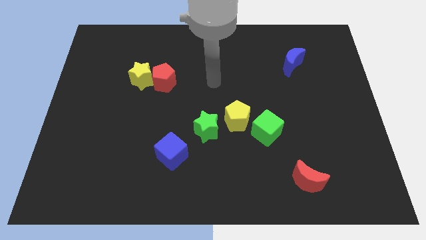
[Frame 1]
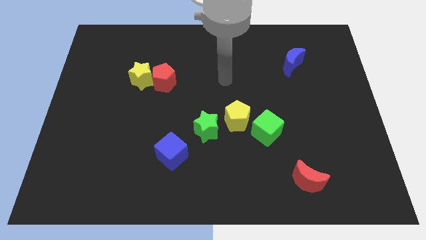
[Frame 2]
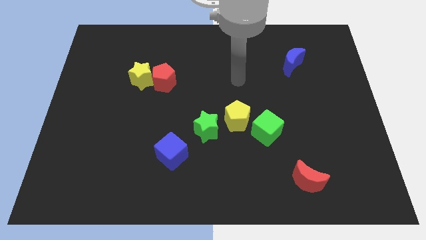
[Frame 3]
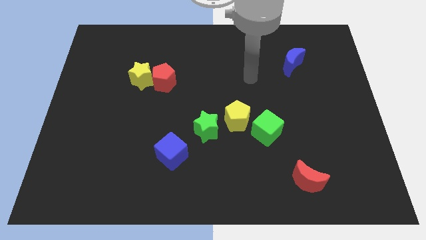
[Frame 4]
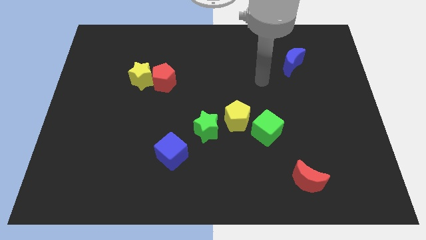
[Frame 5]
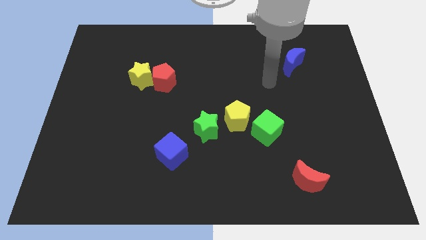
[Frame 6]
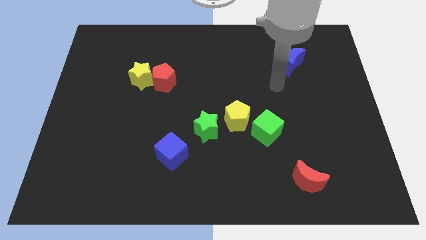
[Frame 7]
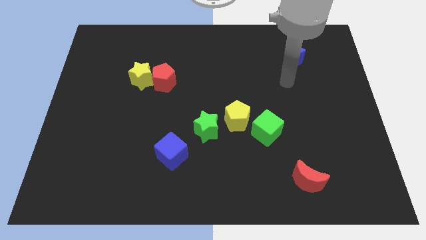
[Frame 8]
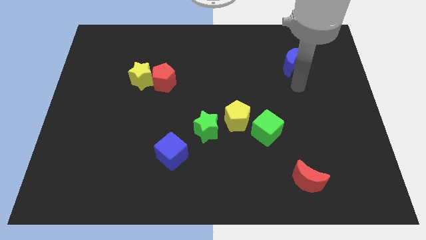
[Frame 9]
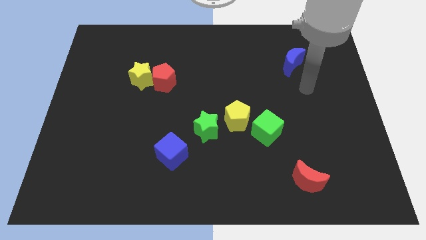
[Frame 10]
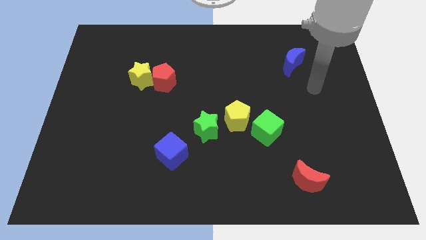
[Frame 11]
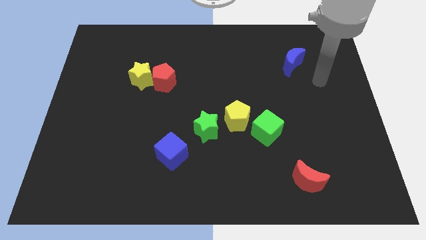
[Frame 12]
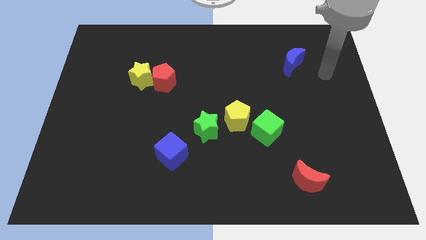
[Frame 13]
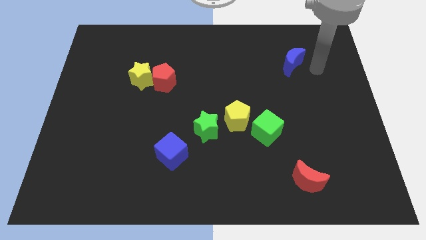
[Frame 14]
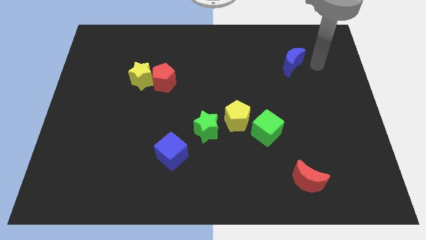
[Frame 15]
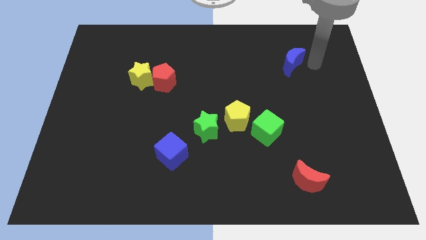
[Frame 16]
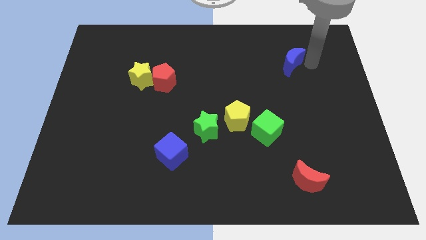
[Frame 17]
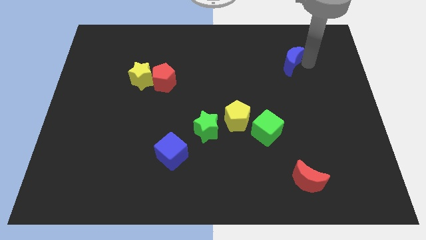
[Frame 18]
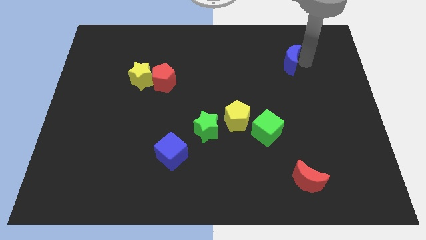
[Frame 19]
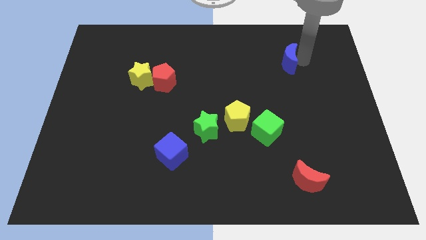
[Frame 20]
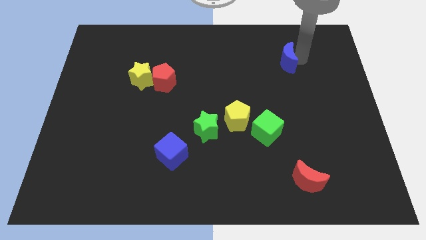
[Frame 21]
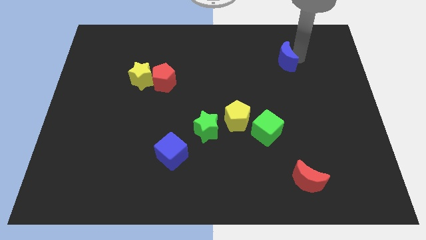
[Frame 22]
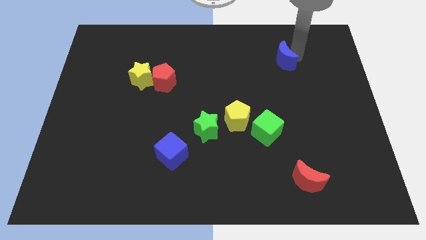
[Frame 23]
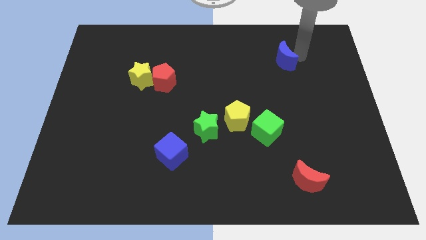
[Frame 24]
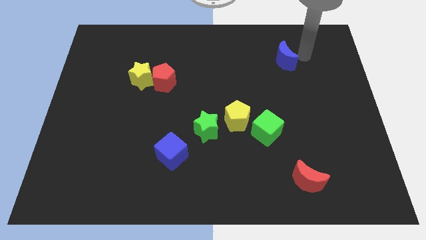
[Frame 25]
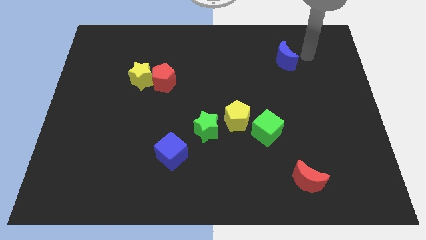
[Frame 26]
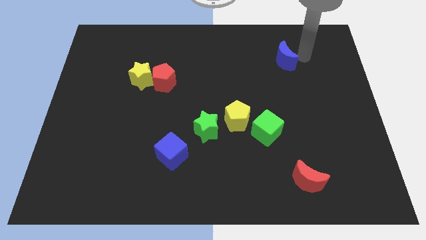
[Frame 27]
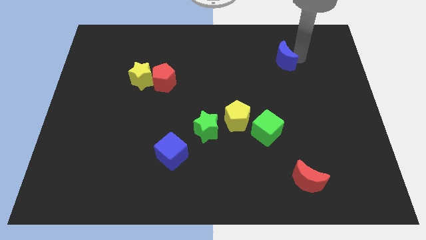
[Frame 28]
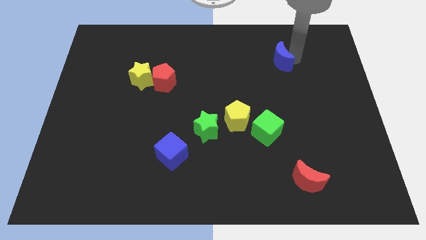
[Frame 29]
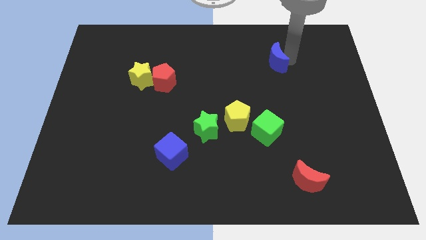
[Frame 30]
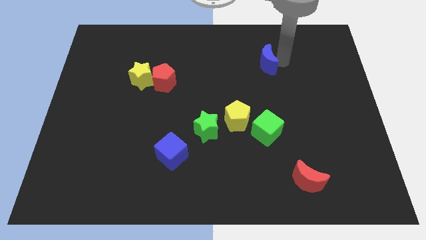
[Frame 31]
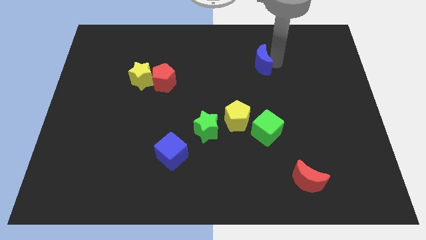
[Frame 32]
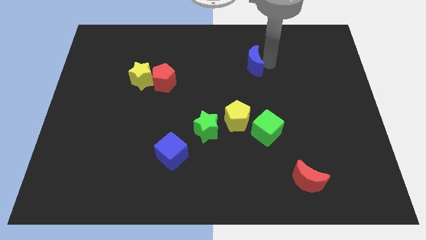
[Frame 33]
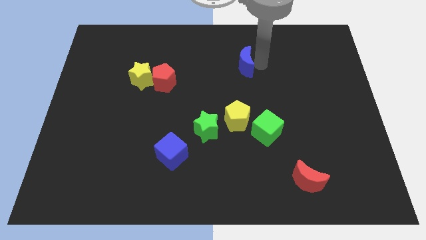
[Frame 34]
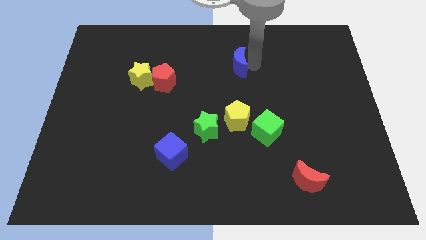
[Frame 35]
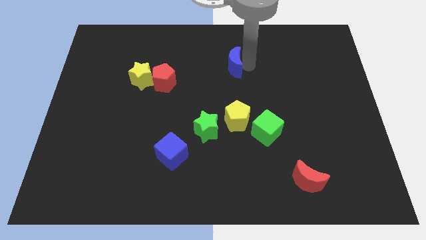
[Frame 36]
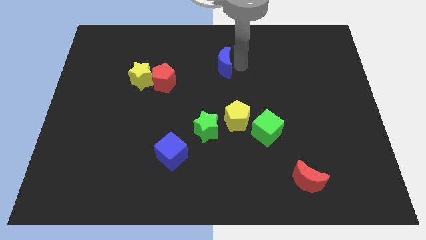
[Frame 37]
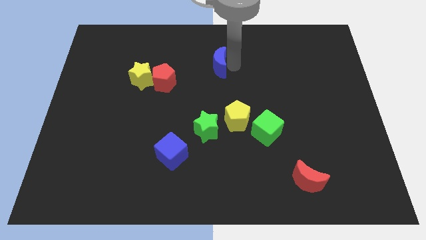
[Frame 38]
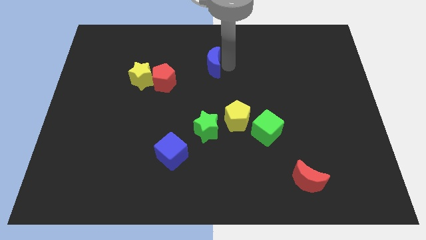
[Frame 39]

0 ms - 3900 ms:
move the blue moon left

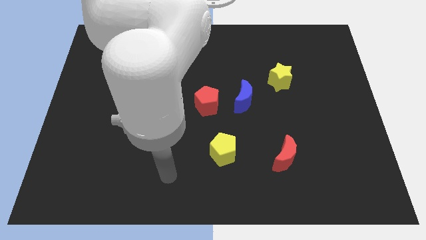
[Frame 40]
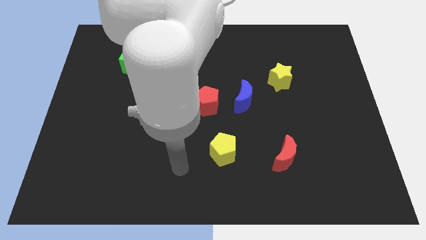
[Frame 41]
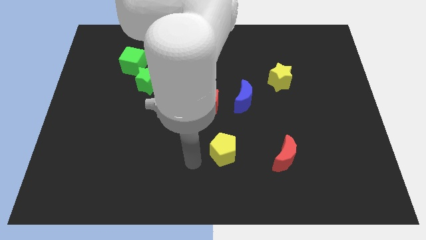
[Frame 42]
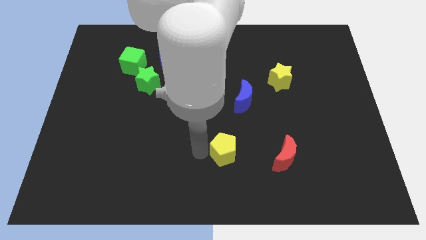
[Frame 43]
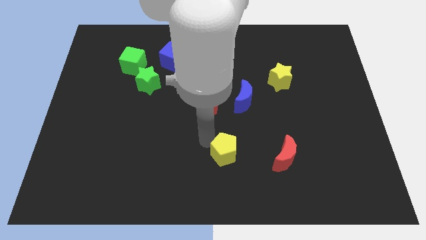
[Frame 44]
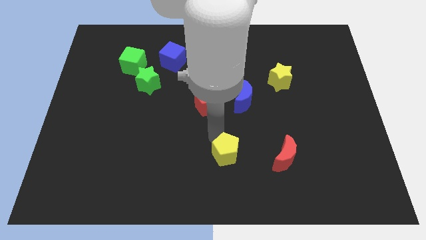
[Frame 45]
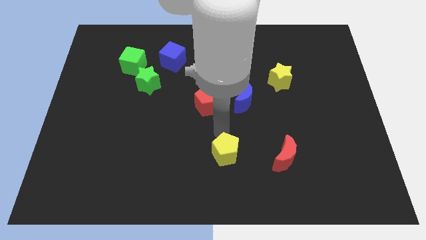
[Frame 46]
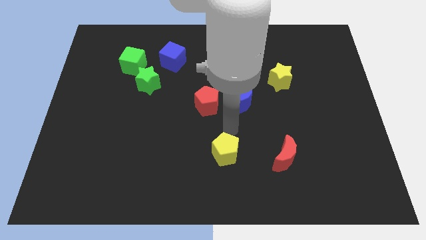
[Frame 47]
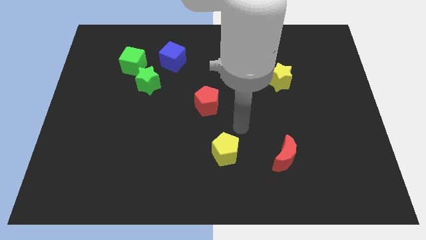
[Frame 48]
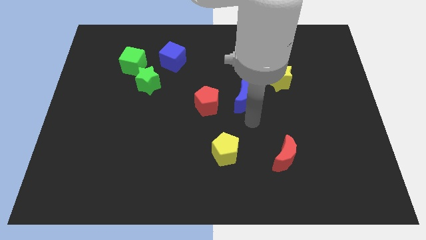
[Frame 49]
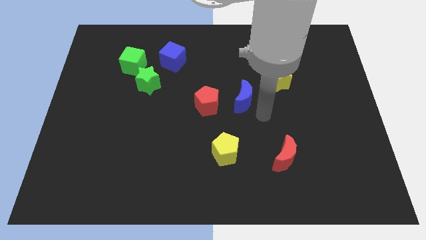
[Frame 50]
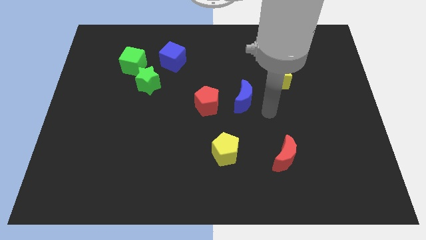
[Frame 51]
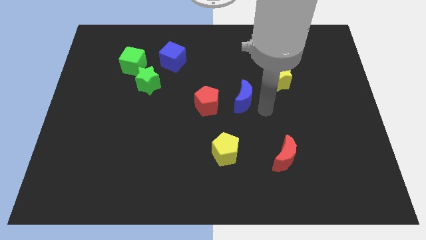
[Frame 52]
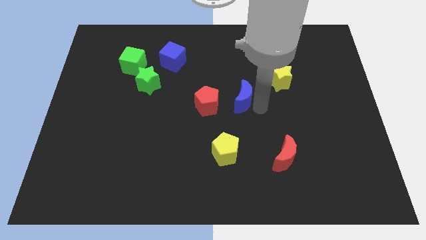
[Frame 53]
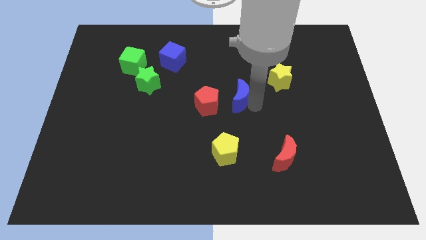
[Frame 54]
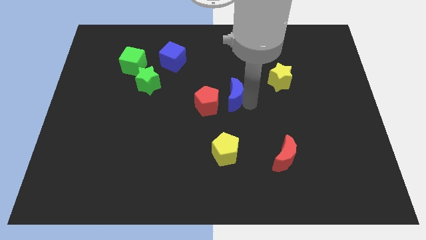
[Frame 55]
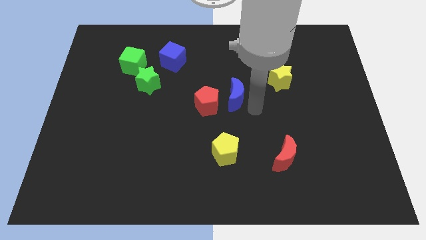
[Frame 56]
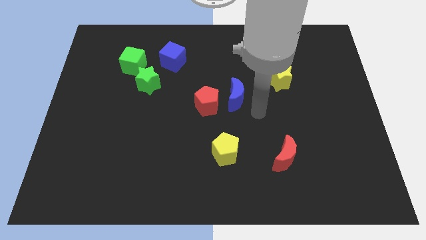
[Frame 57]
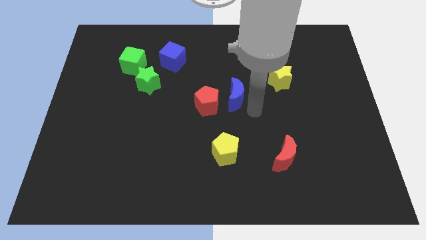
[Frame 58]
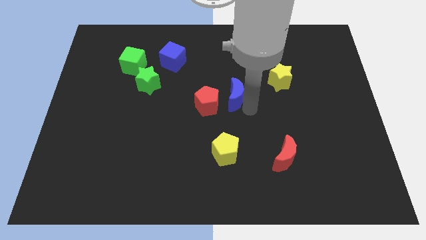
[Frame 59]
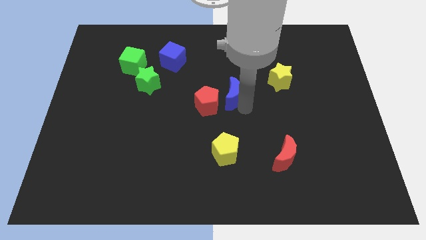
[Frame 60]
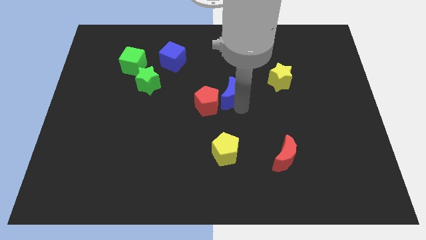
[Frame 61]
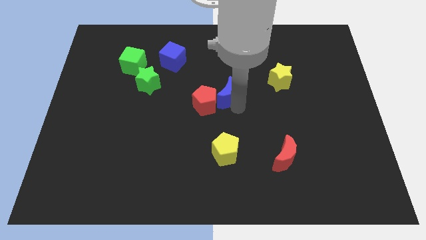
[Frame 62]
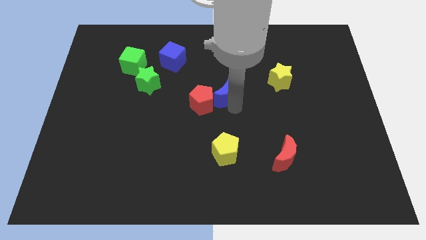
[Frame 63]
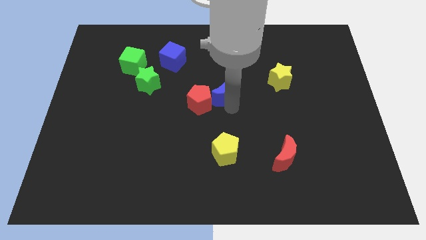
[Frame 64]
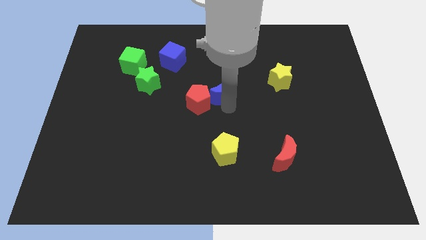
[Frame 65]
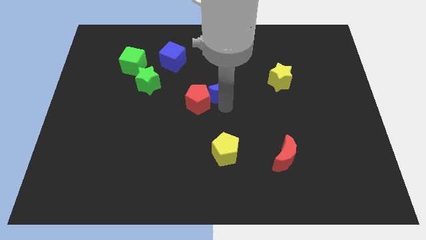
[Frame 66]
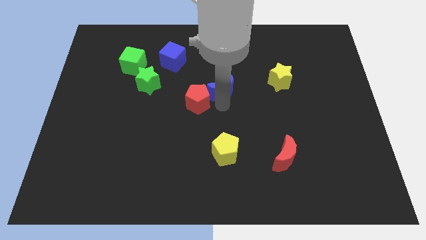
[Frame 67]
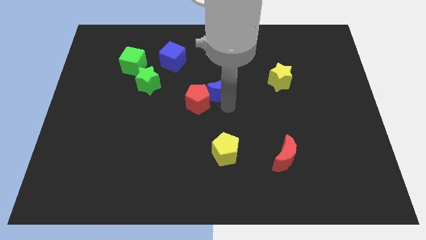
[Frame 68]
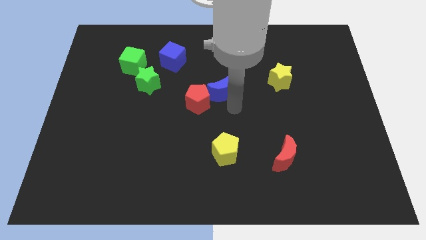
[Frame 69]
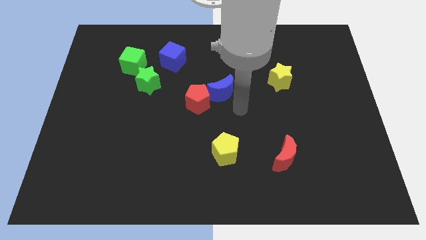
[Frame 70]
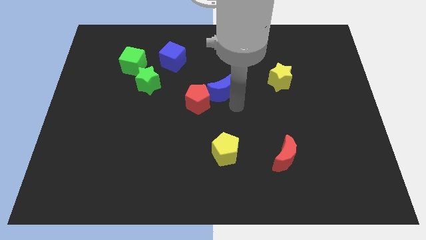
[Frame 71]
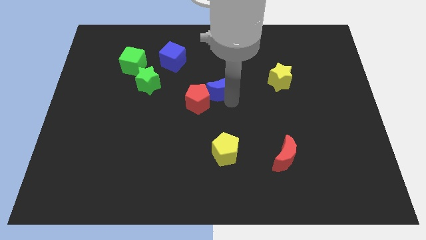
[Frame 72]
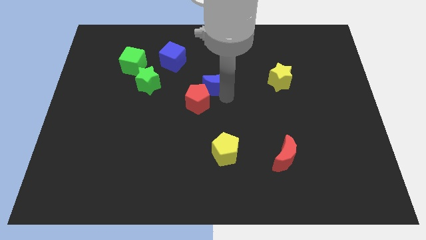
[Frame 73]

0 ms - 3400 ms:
slightly slide the blue moon up and then left

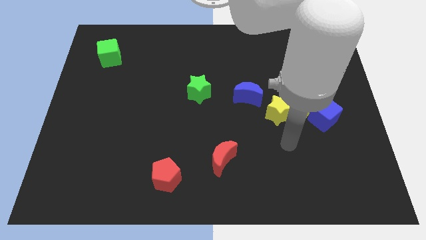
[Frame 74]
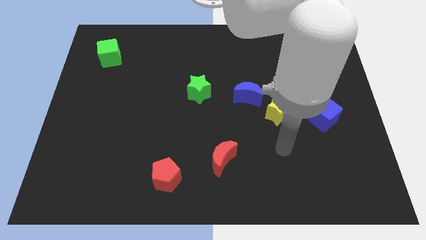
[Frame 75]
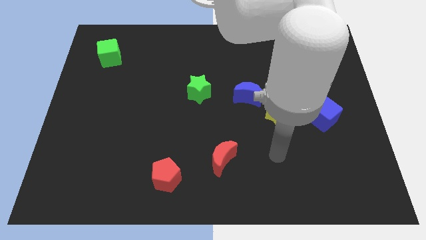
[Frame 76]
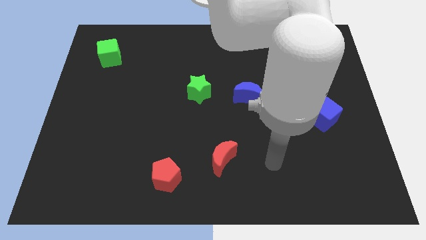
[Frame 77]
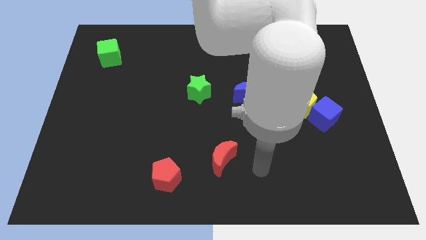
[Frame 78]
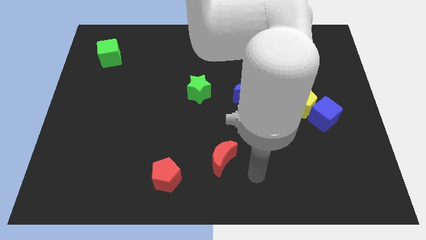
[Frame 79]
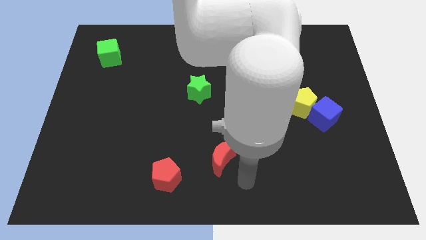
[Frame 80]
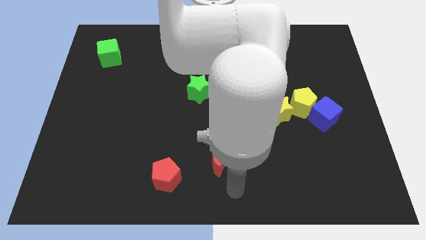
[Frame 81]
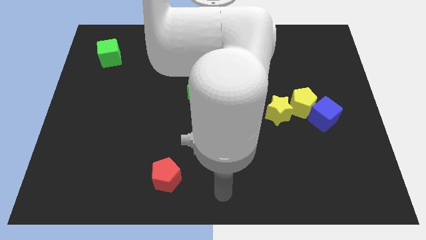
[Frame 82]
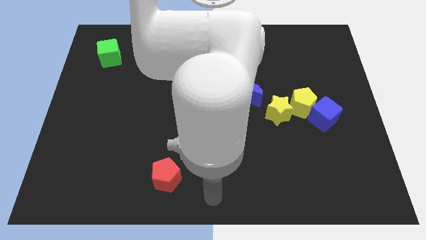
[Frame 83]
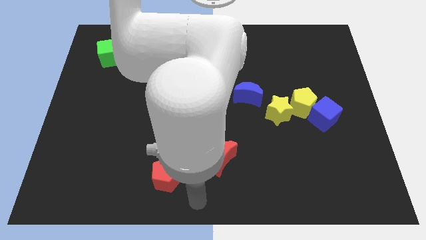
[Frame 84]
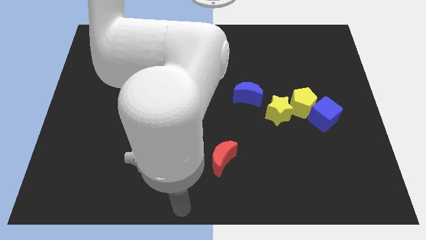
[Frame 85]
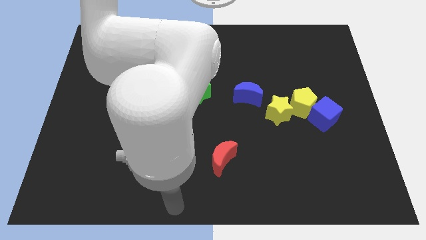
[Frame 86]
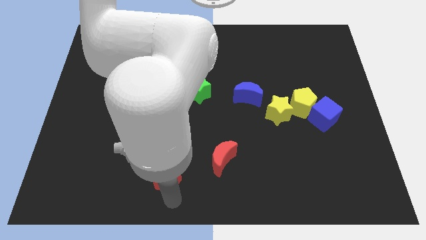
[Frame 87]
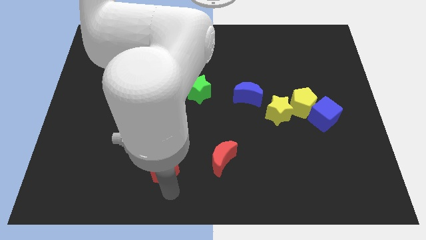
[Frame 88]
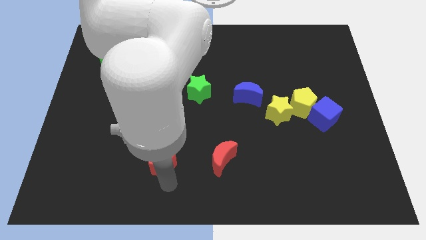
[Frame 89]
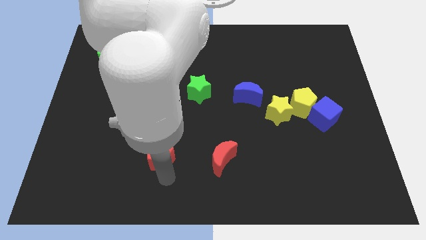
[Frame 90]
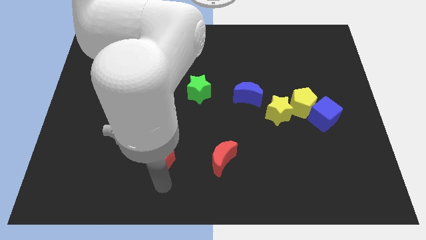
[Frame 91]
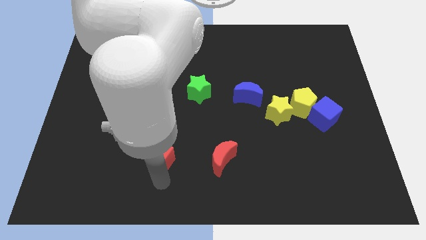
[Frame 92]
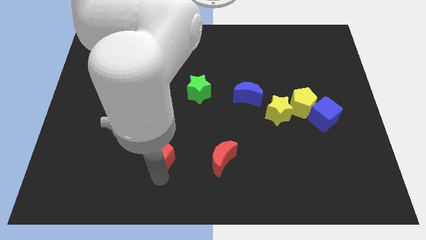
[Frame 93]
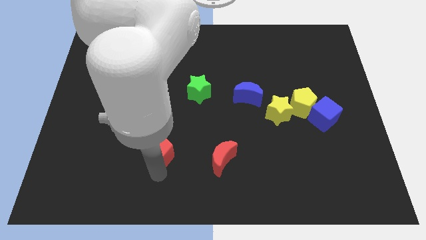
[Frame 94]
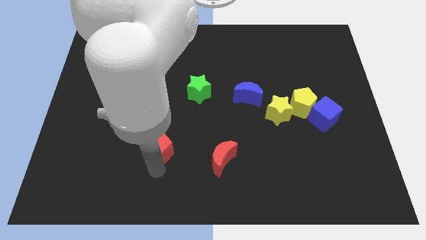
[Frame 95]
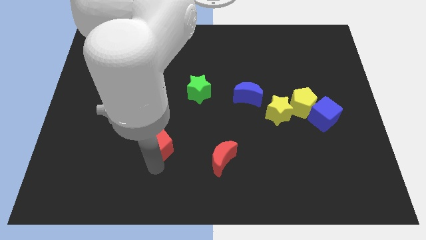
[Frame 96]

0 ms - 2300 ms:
move the red pentagon a little up
